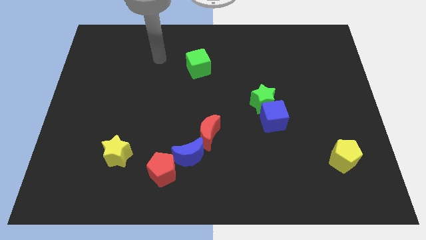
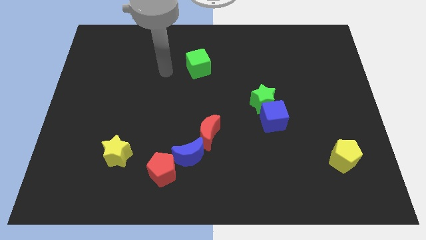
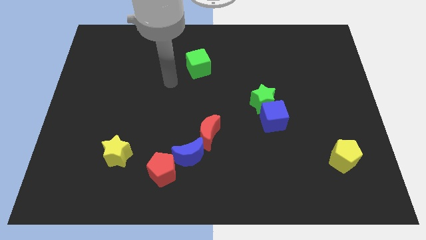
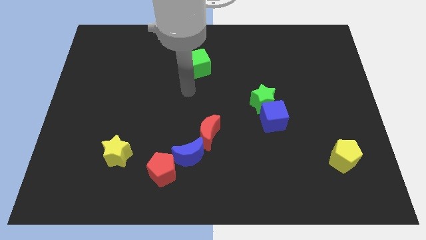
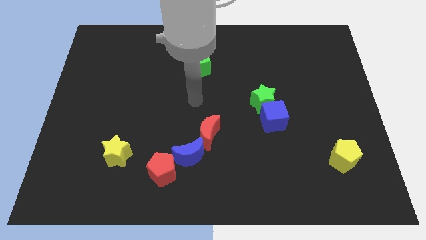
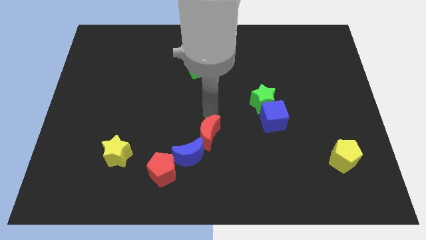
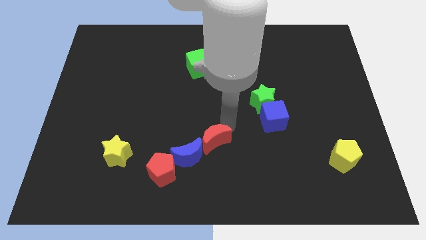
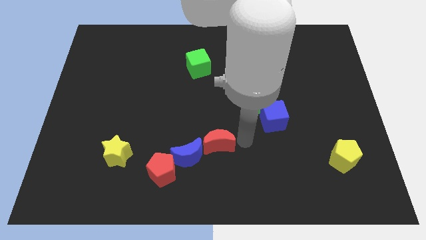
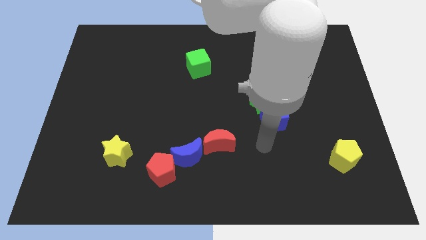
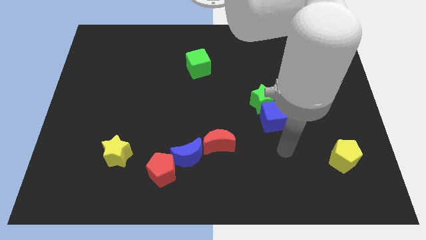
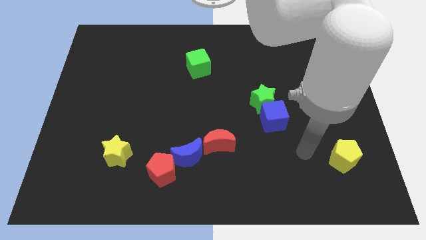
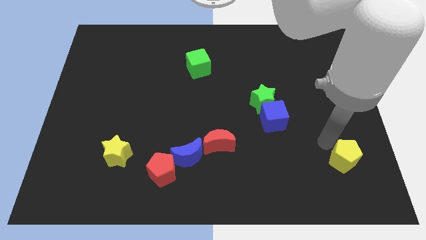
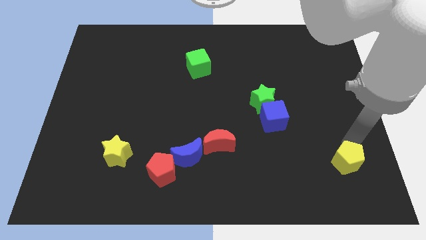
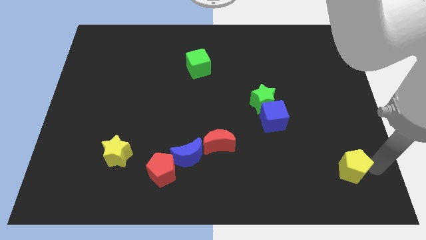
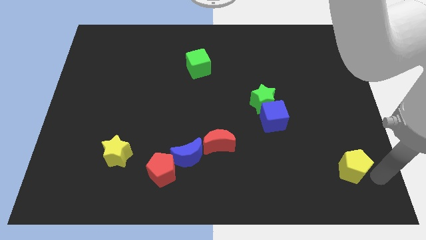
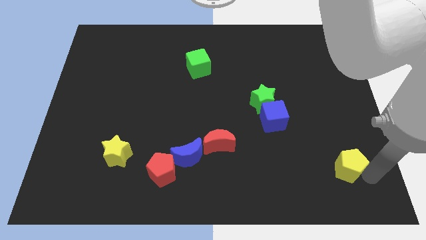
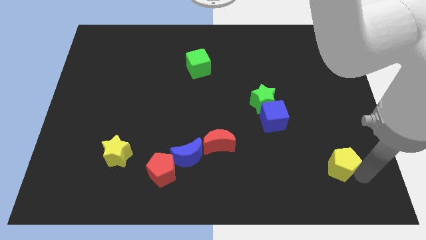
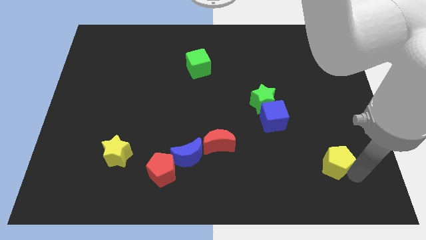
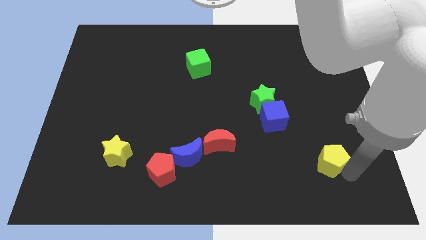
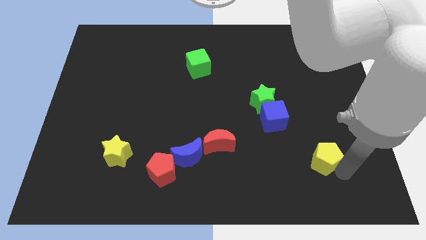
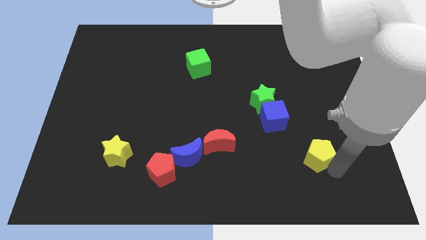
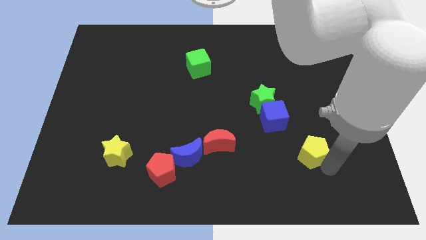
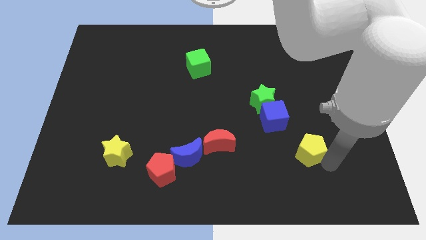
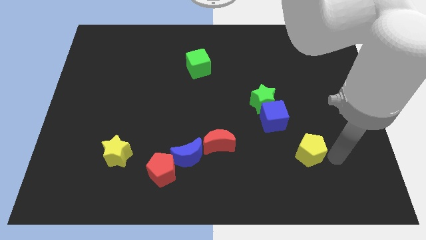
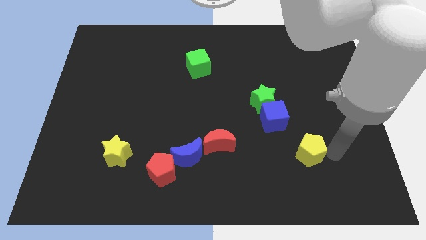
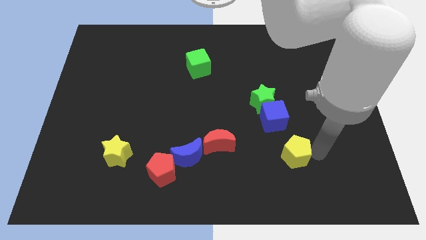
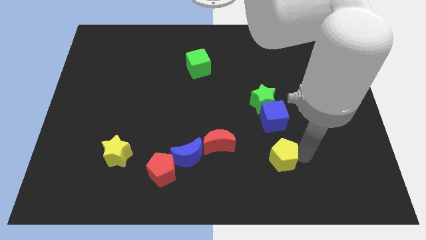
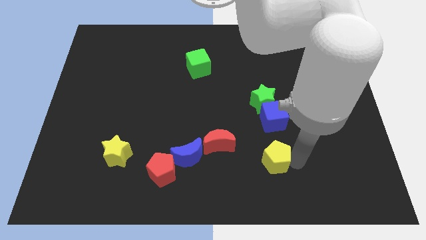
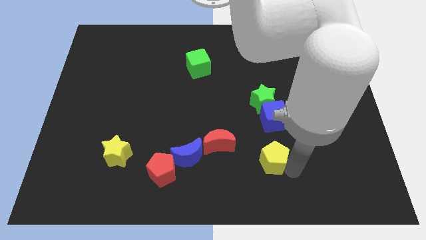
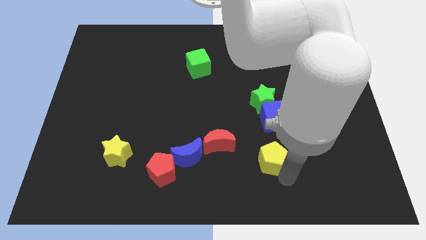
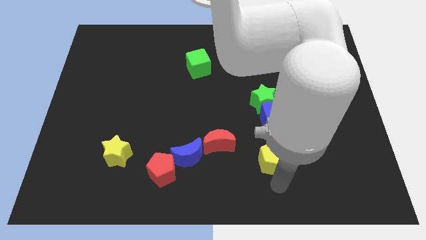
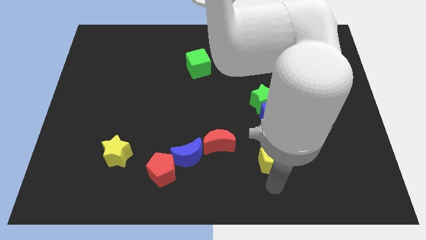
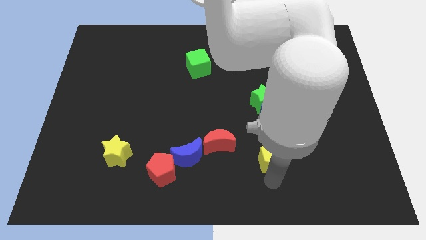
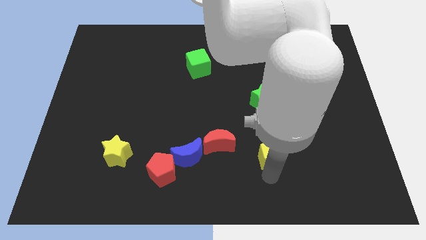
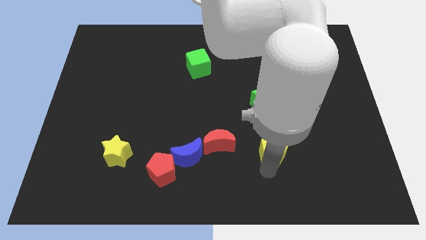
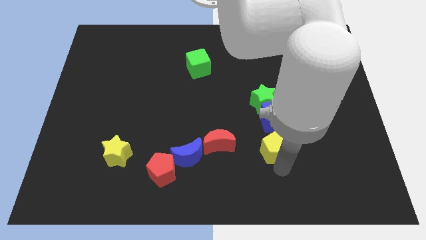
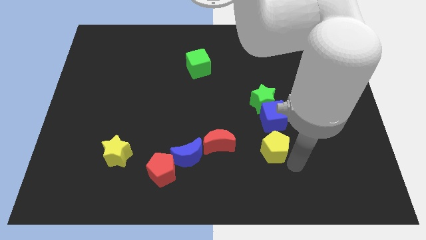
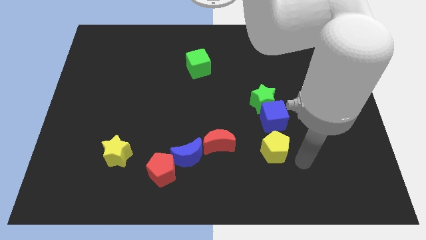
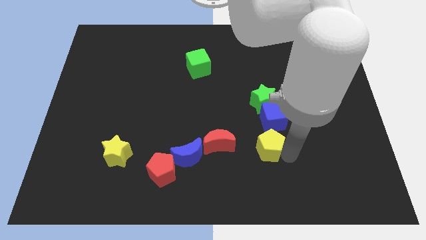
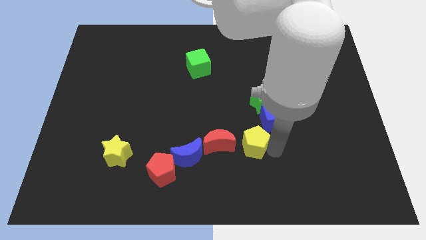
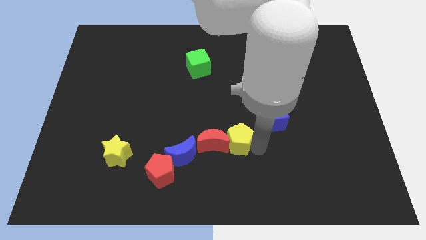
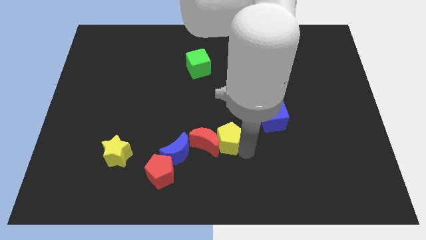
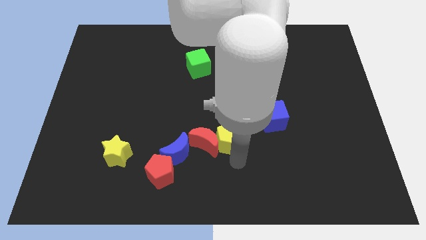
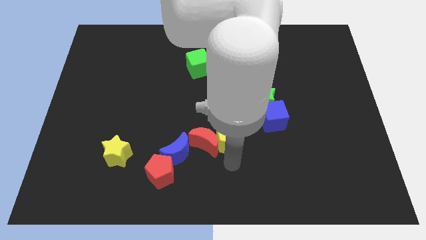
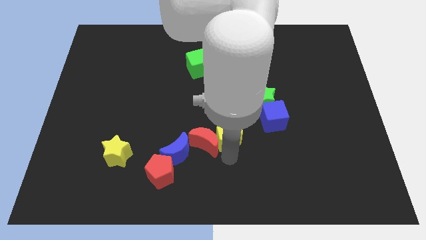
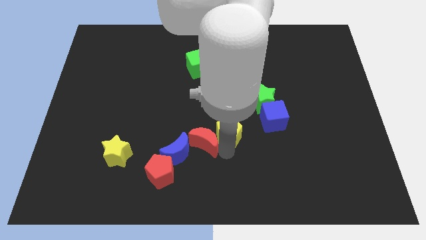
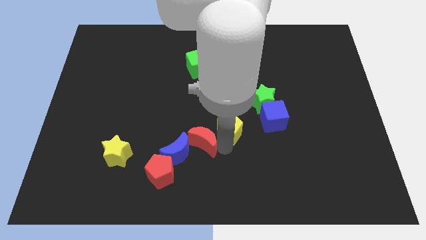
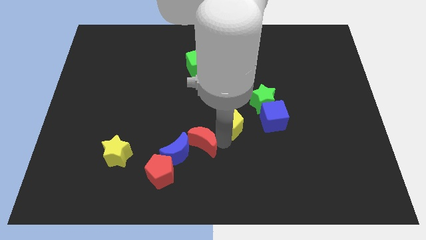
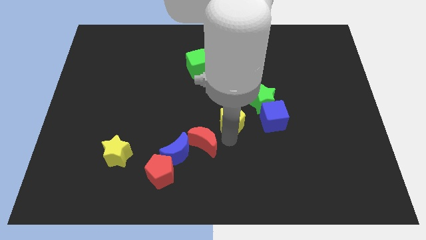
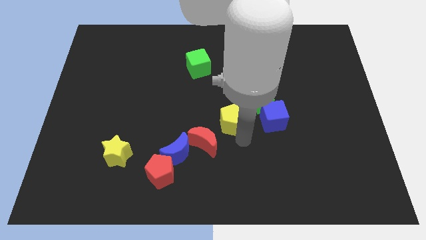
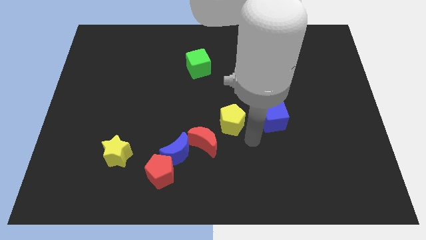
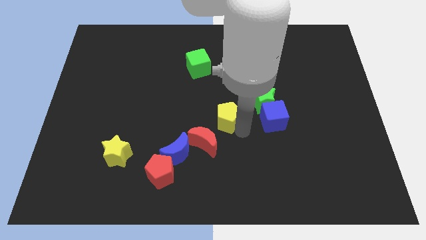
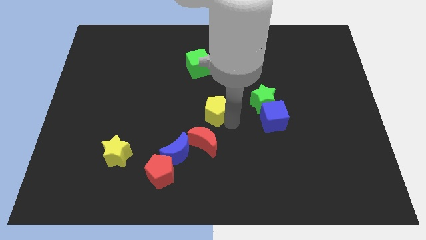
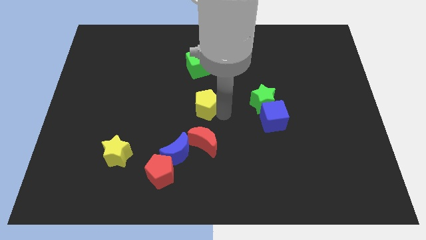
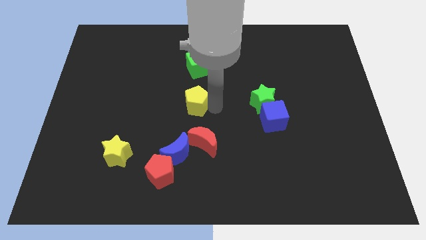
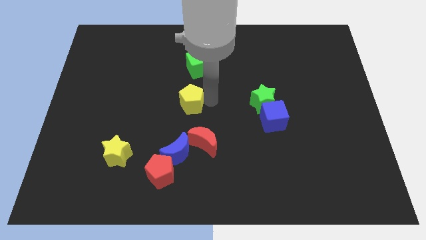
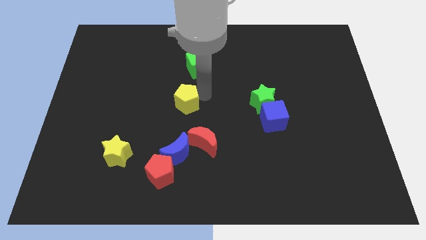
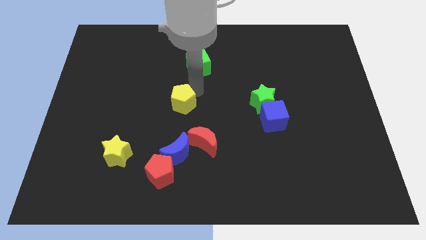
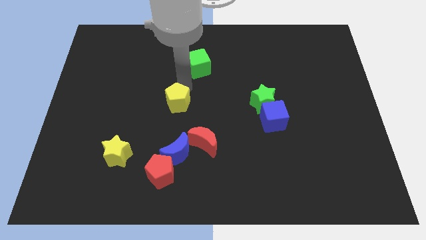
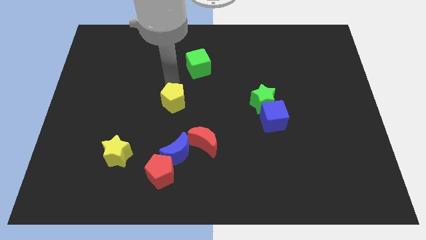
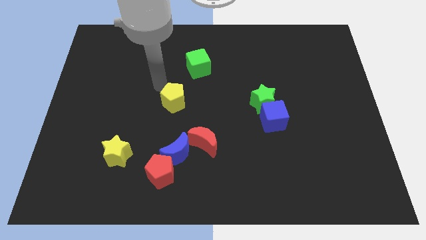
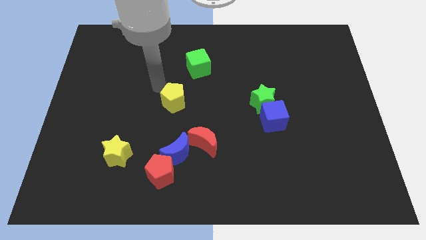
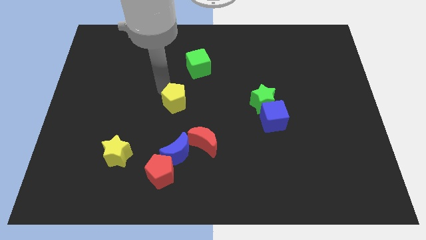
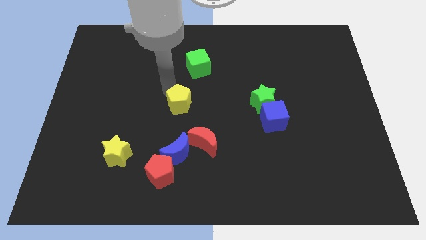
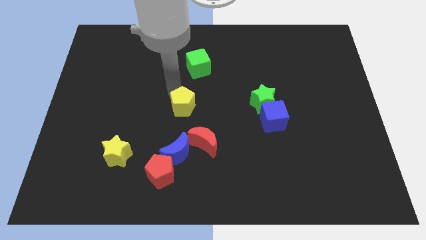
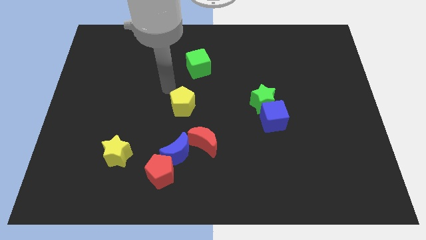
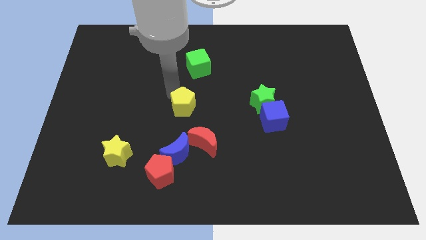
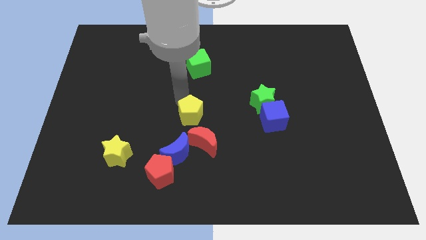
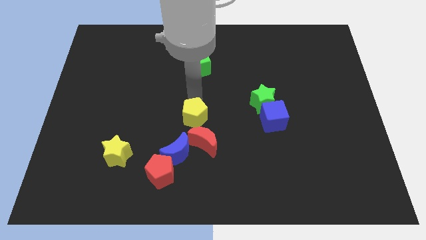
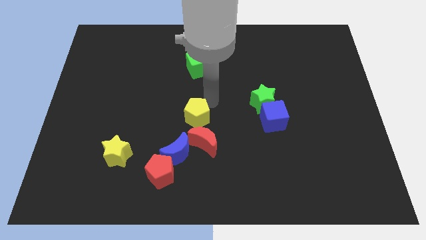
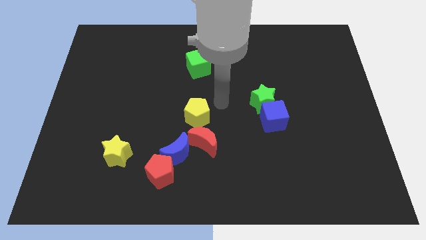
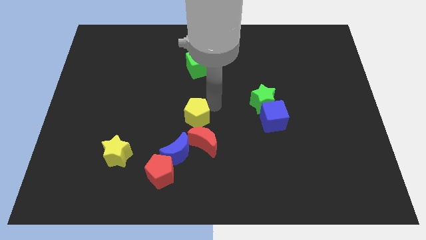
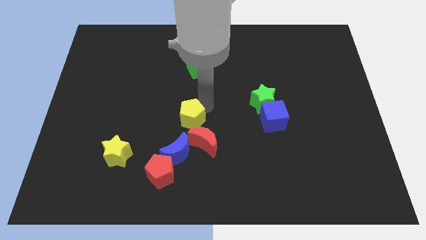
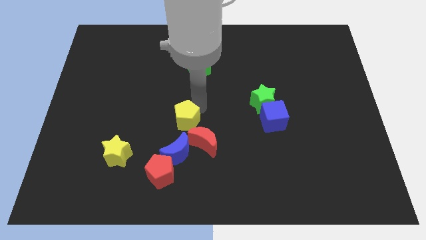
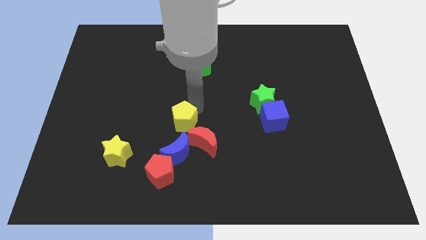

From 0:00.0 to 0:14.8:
push the yellow pentagon above the red pentagon
